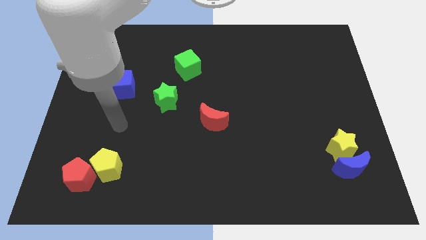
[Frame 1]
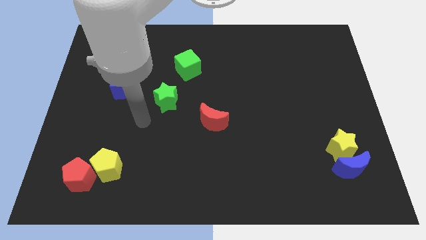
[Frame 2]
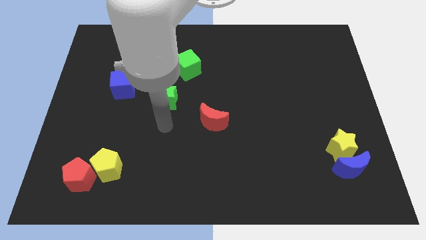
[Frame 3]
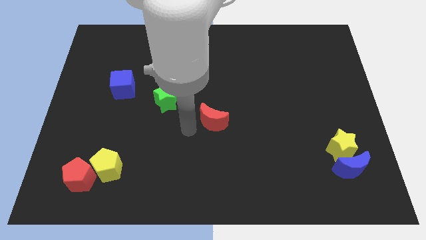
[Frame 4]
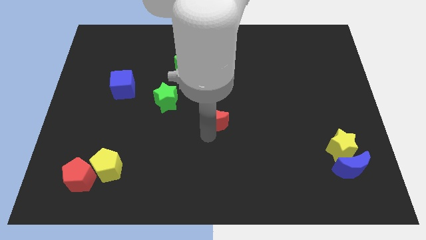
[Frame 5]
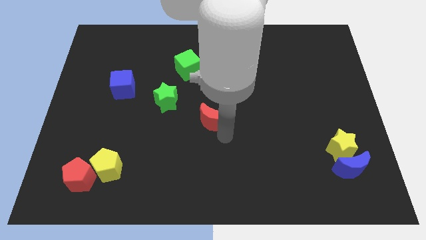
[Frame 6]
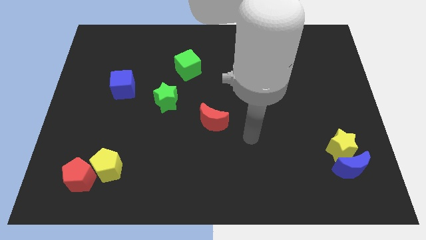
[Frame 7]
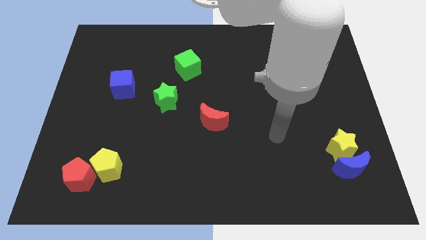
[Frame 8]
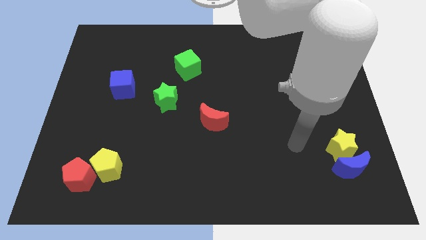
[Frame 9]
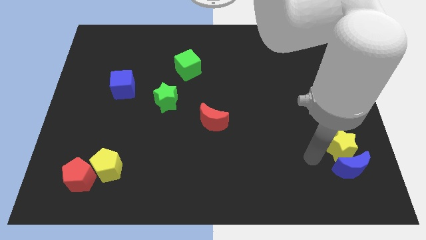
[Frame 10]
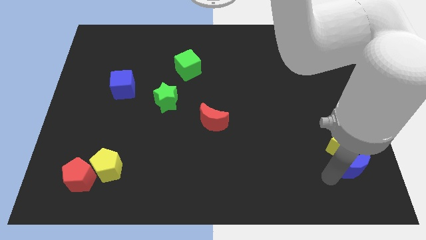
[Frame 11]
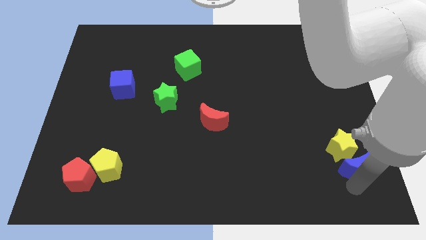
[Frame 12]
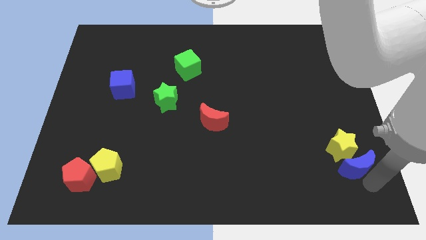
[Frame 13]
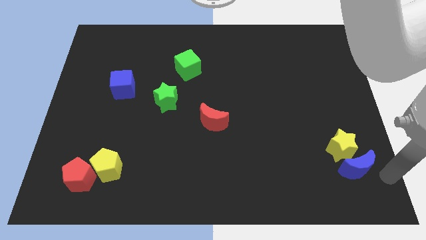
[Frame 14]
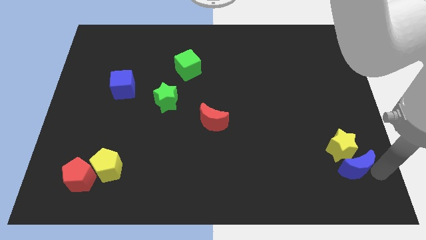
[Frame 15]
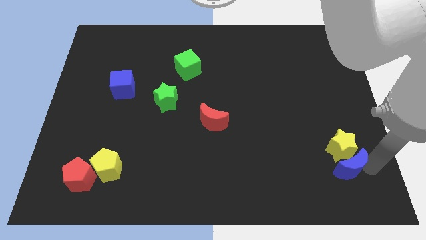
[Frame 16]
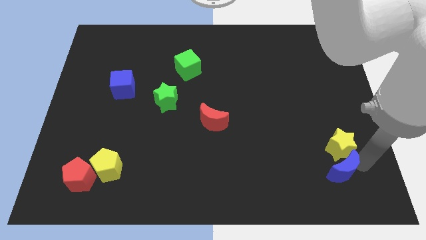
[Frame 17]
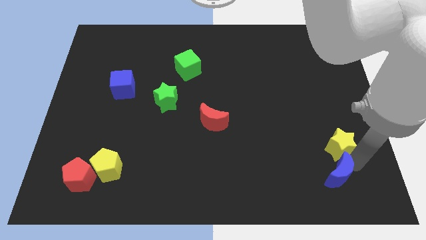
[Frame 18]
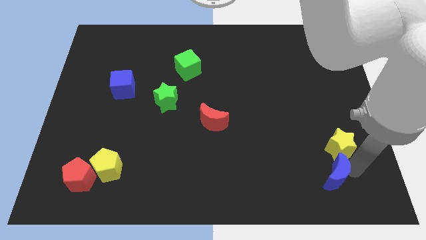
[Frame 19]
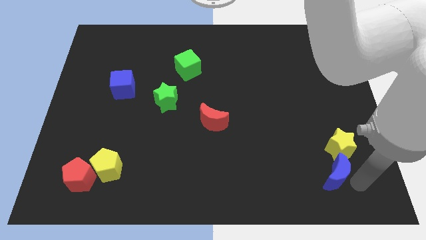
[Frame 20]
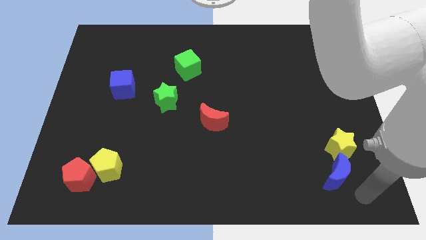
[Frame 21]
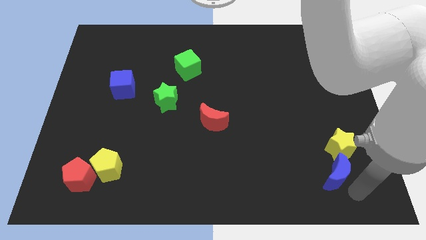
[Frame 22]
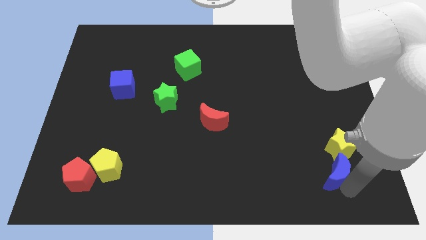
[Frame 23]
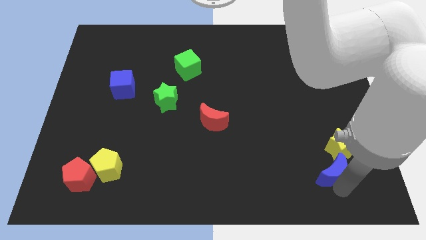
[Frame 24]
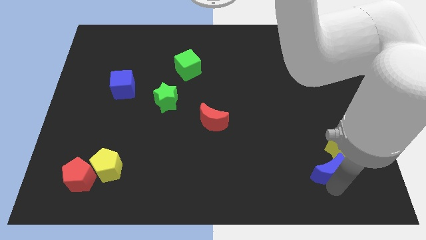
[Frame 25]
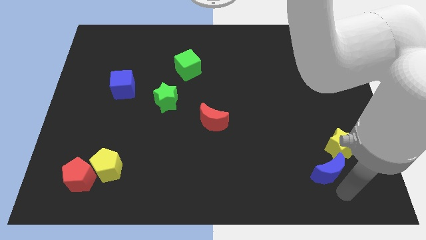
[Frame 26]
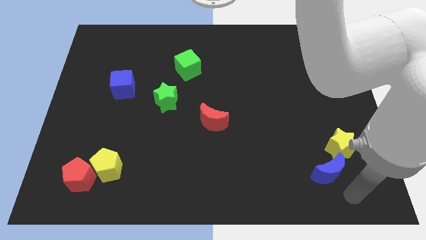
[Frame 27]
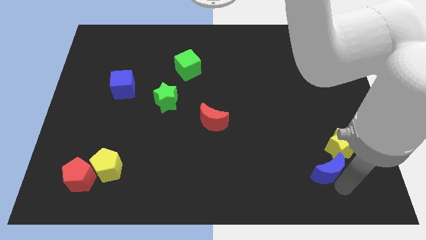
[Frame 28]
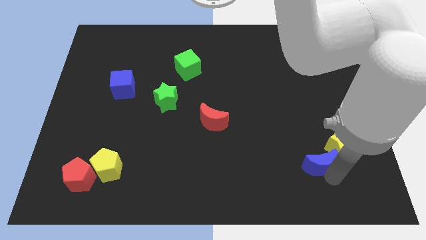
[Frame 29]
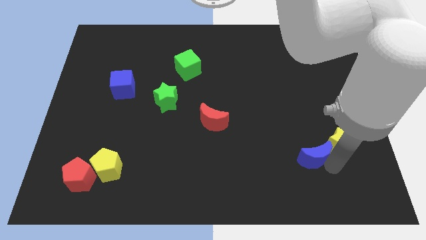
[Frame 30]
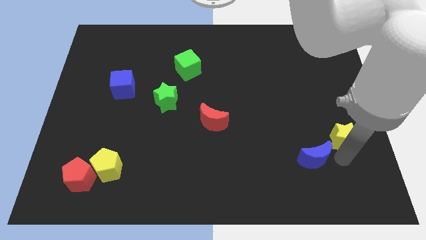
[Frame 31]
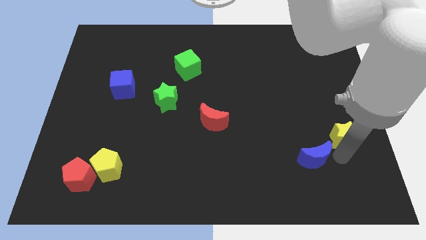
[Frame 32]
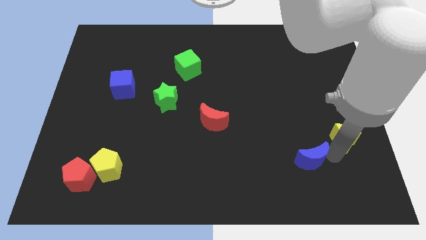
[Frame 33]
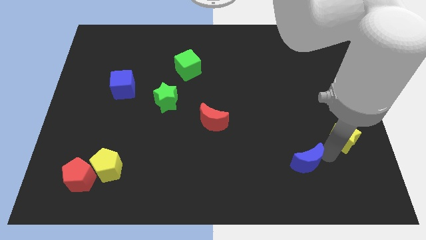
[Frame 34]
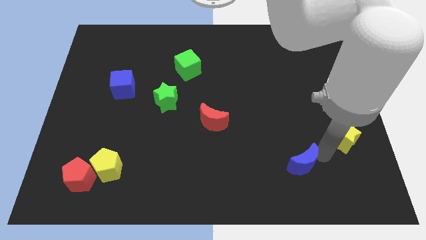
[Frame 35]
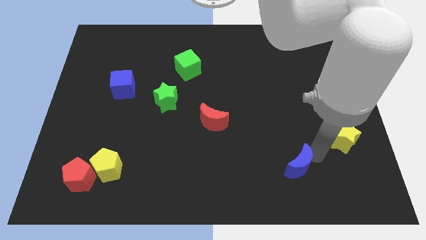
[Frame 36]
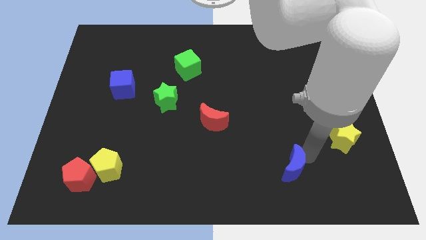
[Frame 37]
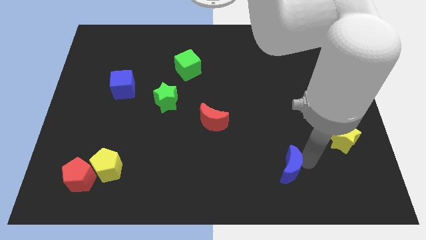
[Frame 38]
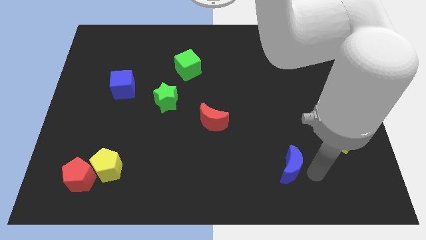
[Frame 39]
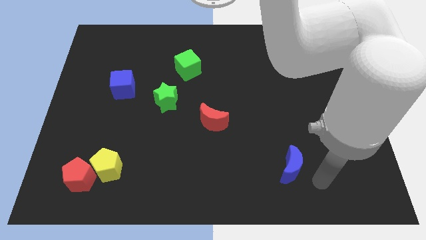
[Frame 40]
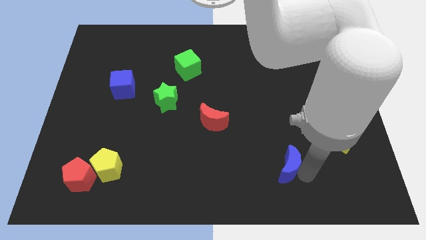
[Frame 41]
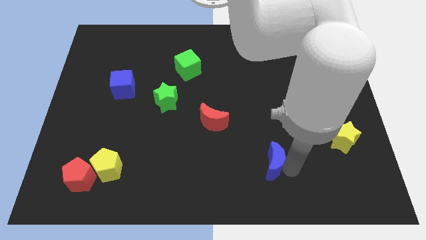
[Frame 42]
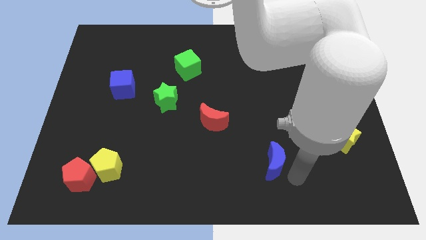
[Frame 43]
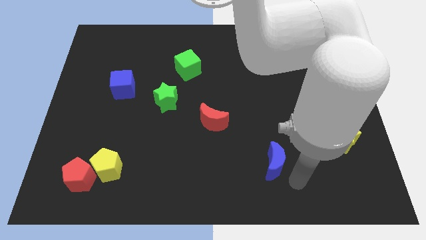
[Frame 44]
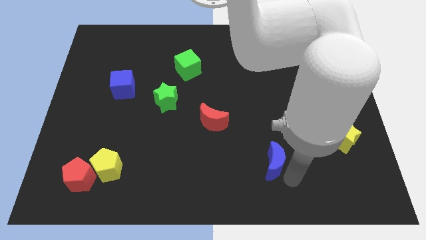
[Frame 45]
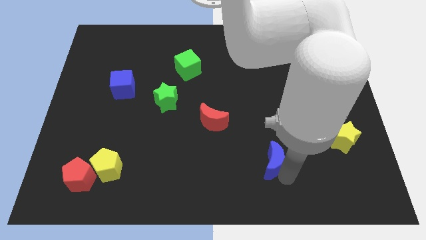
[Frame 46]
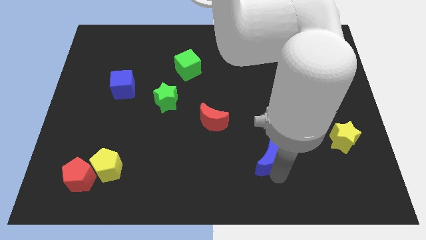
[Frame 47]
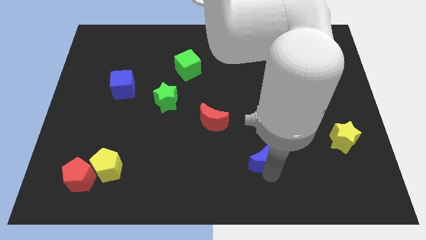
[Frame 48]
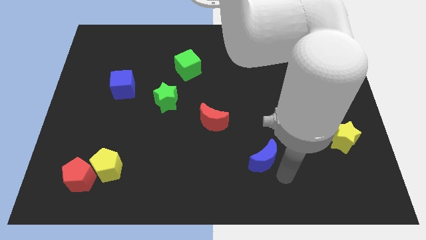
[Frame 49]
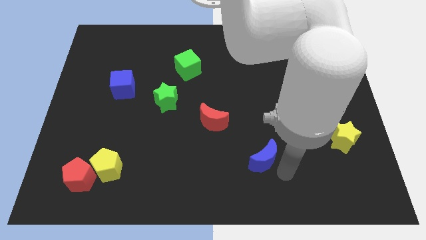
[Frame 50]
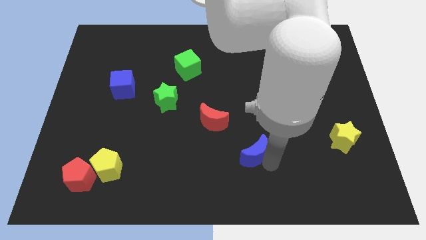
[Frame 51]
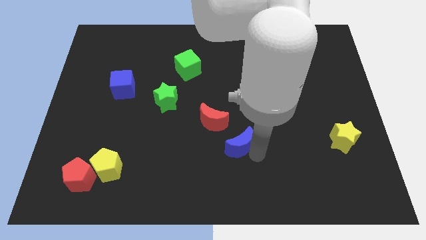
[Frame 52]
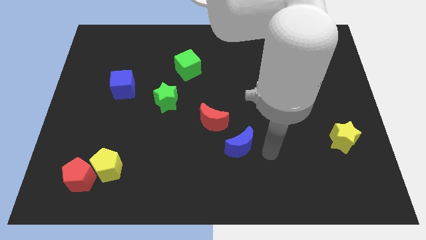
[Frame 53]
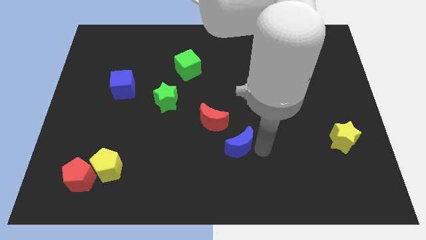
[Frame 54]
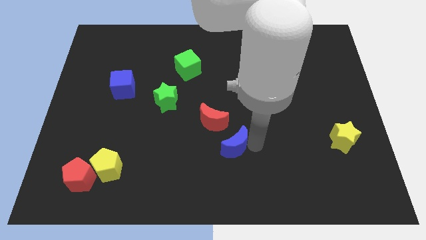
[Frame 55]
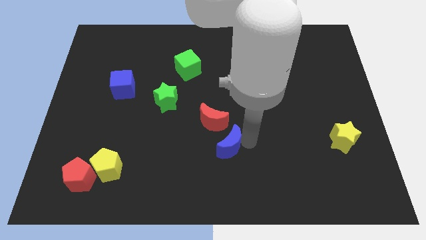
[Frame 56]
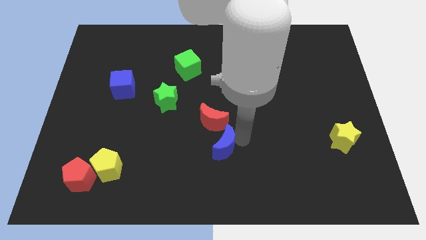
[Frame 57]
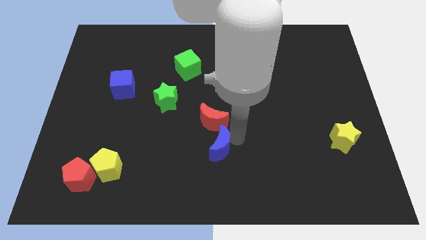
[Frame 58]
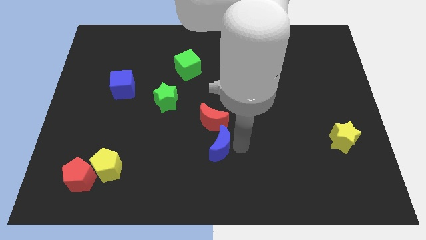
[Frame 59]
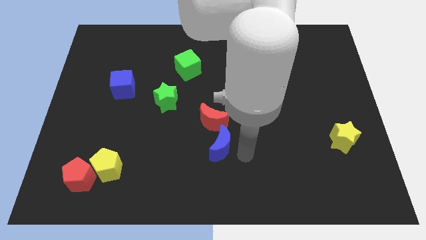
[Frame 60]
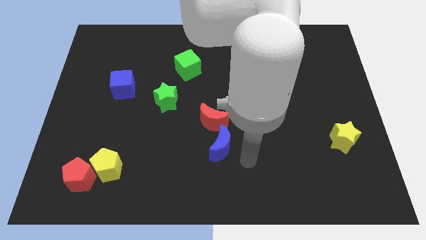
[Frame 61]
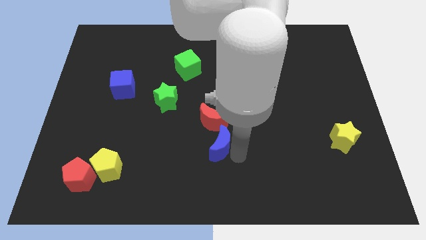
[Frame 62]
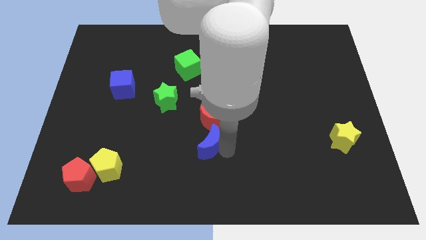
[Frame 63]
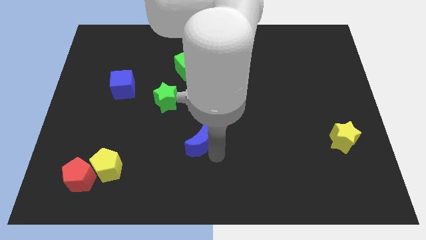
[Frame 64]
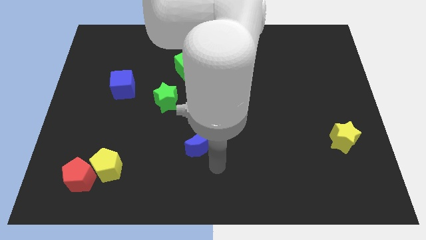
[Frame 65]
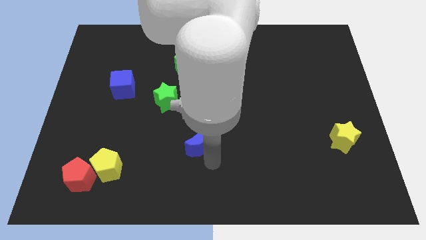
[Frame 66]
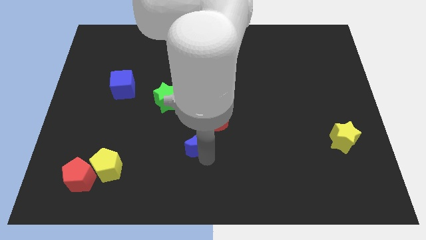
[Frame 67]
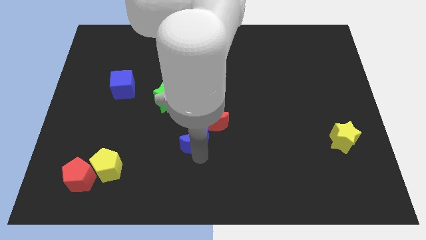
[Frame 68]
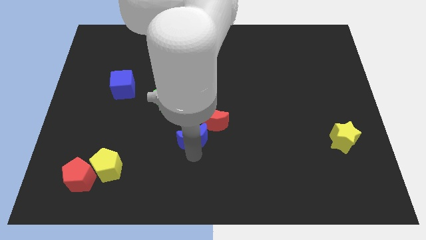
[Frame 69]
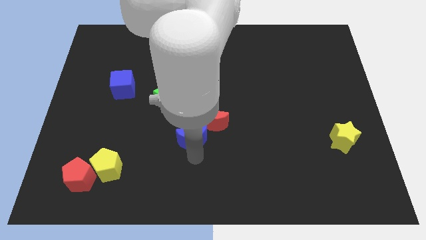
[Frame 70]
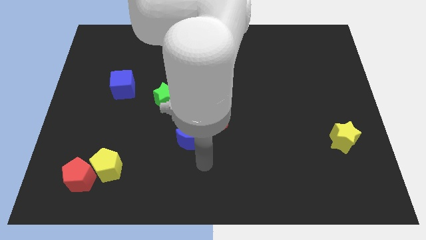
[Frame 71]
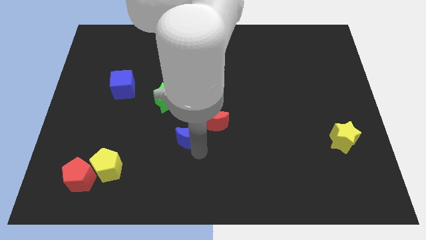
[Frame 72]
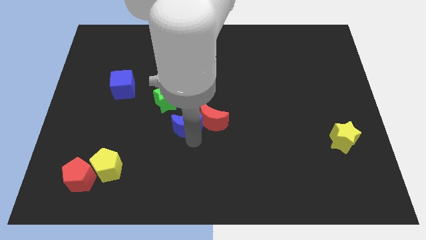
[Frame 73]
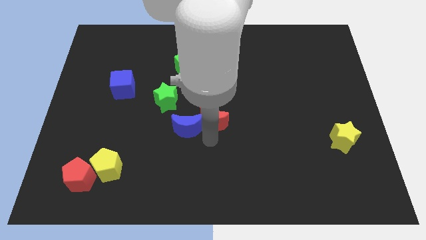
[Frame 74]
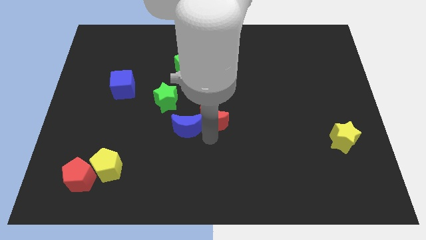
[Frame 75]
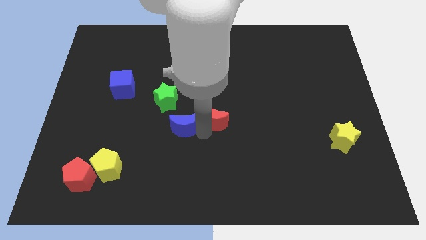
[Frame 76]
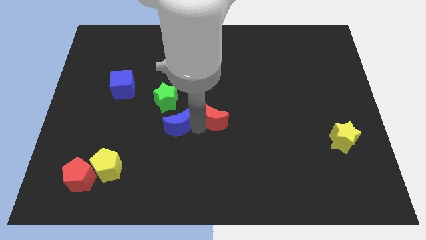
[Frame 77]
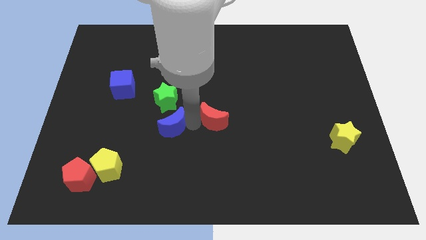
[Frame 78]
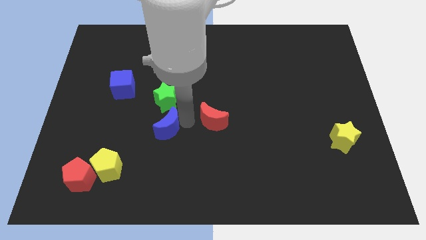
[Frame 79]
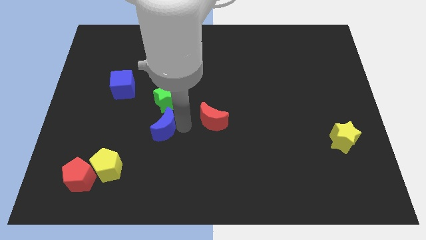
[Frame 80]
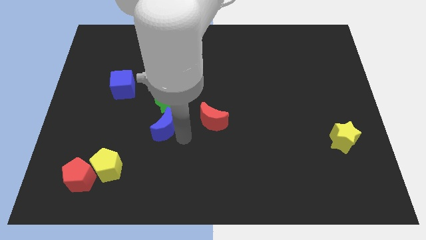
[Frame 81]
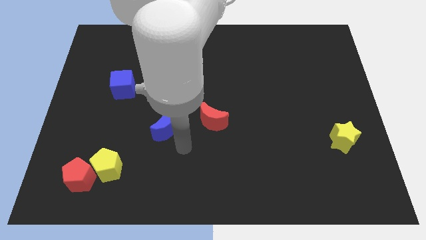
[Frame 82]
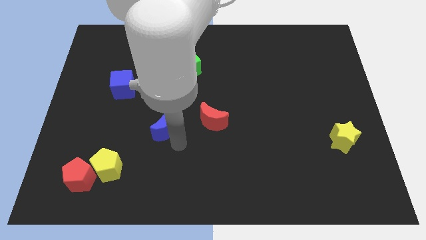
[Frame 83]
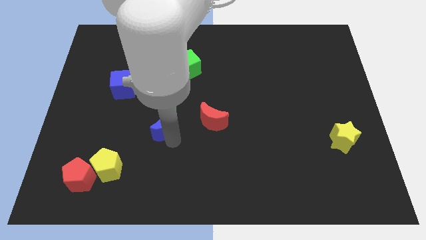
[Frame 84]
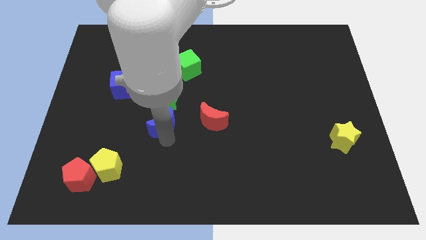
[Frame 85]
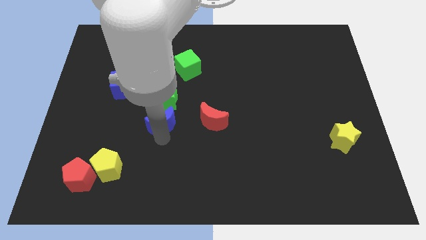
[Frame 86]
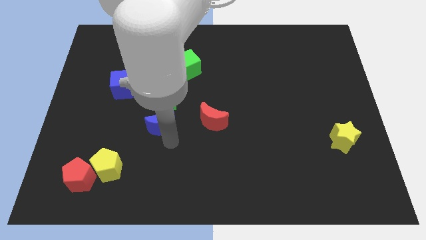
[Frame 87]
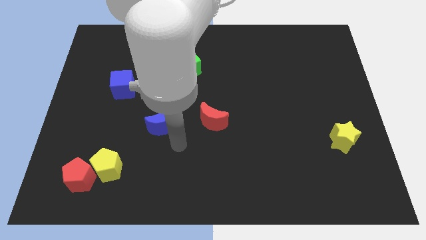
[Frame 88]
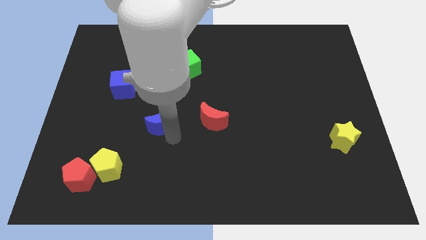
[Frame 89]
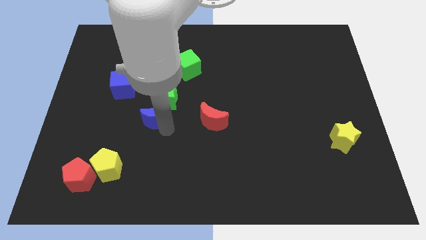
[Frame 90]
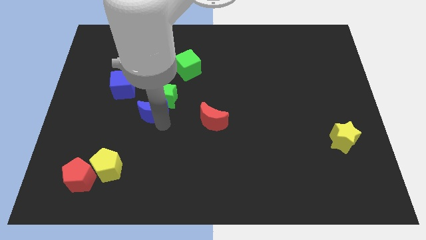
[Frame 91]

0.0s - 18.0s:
push the blue moon to the bottom right of the blue cube
